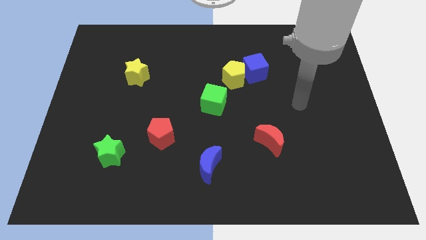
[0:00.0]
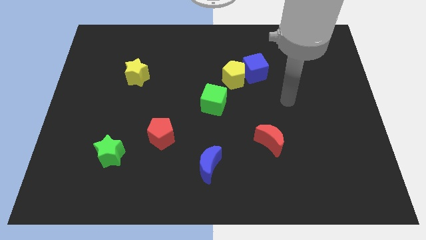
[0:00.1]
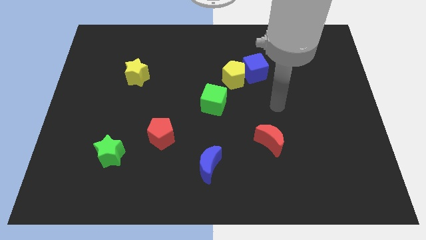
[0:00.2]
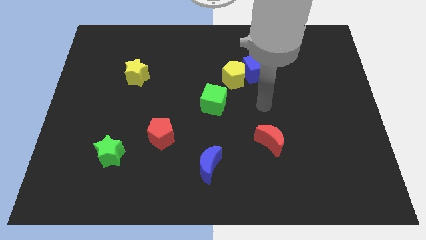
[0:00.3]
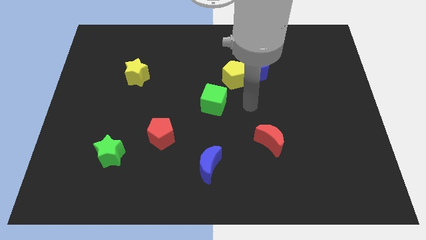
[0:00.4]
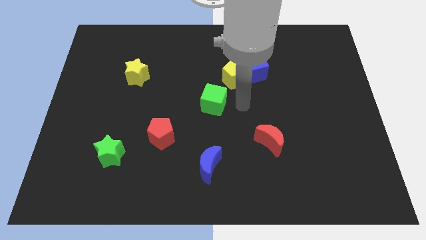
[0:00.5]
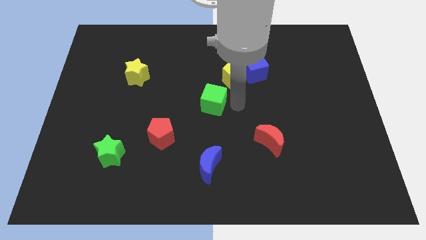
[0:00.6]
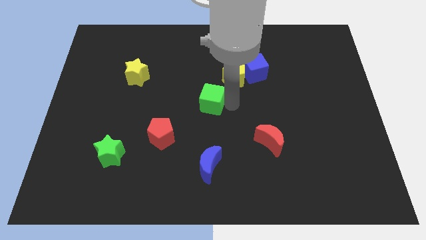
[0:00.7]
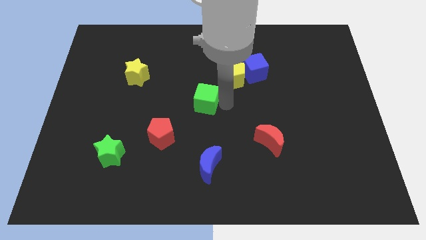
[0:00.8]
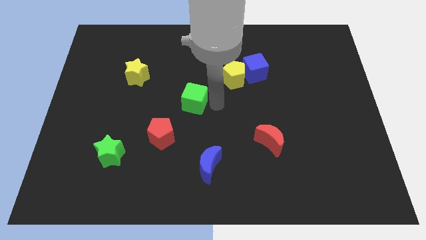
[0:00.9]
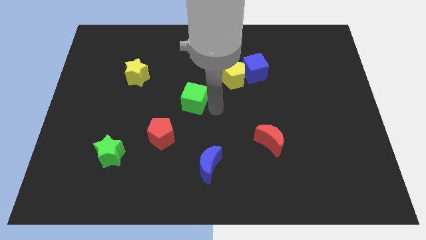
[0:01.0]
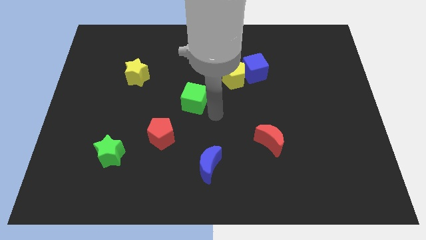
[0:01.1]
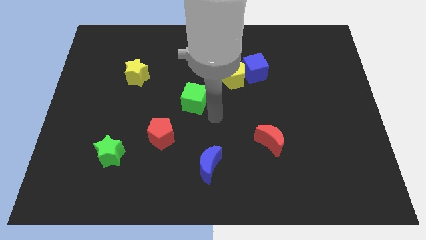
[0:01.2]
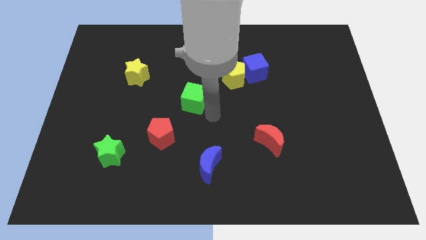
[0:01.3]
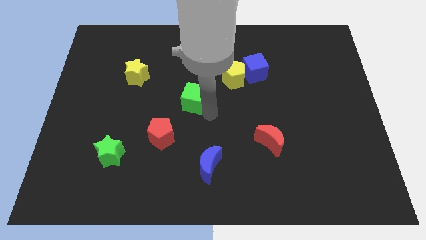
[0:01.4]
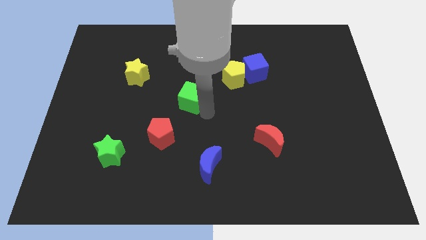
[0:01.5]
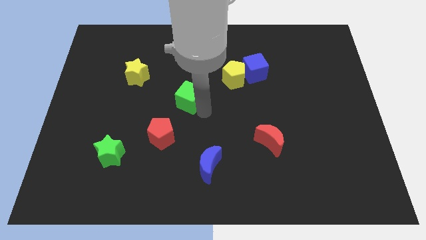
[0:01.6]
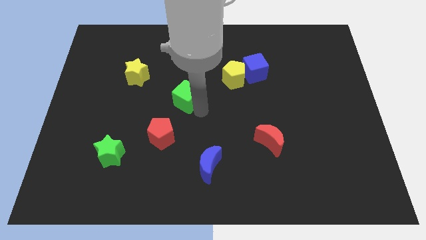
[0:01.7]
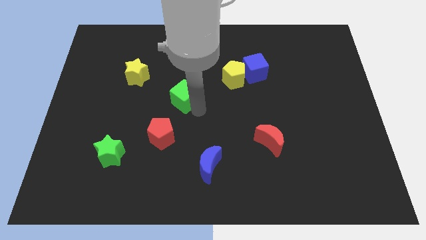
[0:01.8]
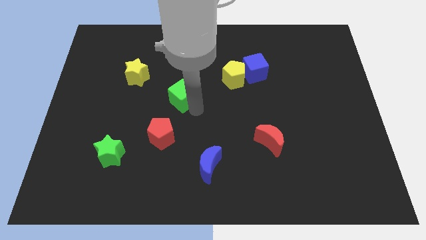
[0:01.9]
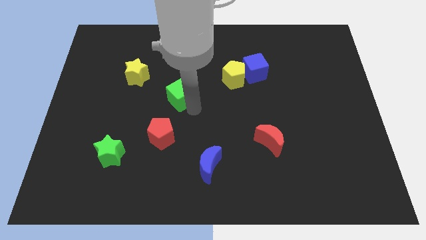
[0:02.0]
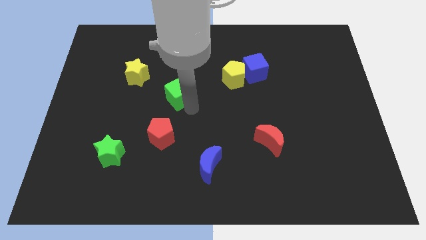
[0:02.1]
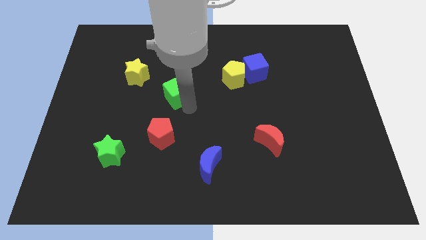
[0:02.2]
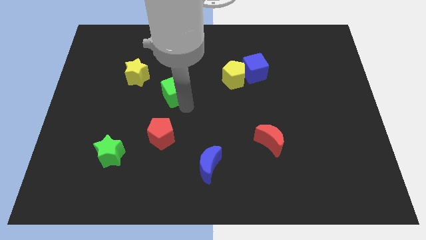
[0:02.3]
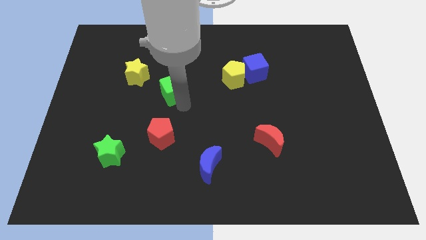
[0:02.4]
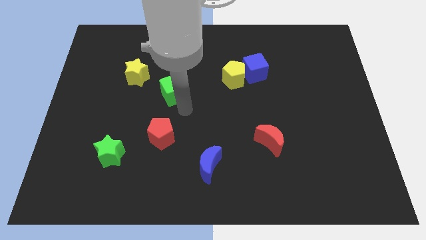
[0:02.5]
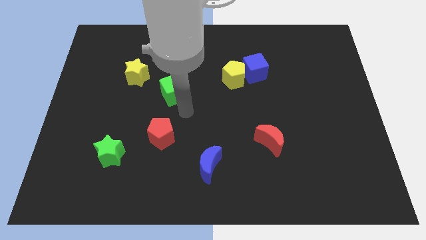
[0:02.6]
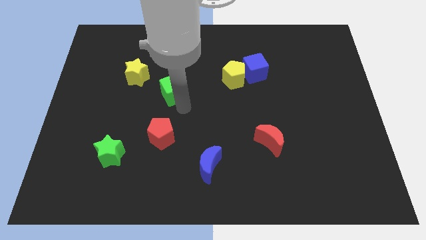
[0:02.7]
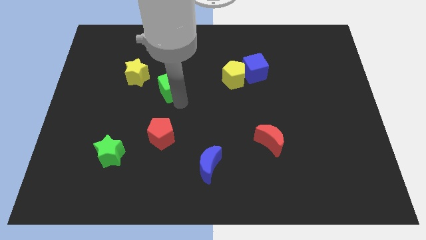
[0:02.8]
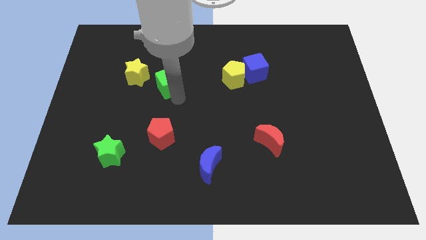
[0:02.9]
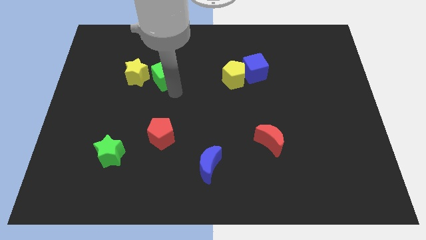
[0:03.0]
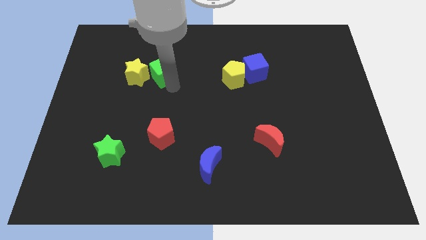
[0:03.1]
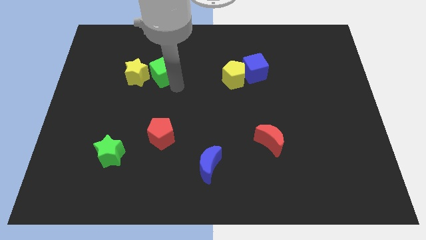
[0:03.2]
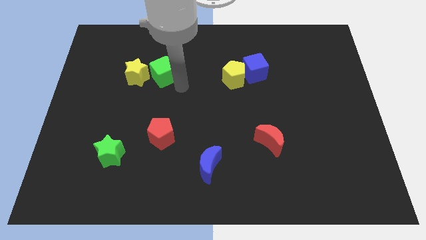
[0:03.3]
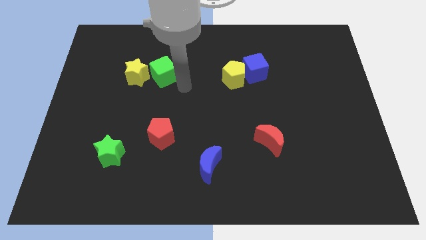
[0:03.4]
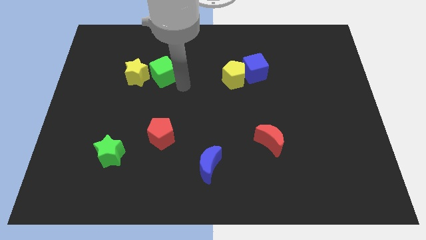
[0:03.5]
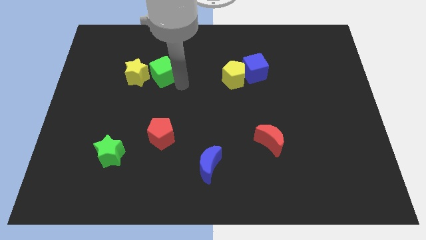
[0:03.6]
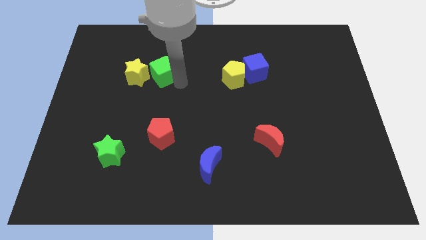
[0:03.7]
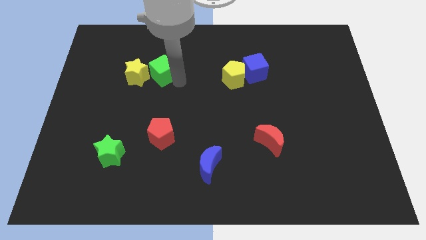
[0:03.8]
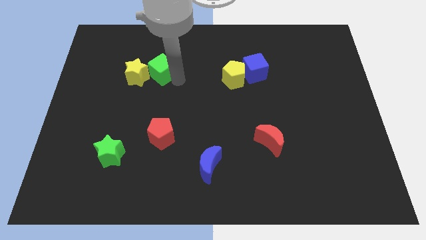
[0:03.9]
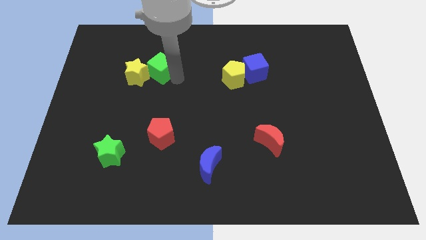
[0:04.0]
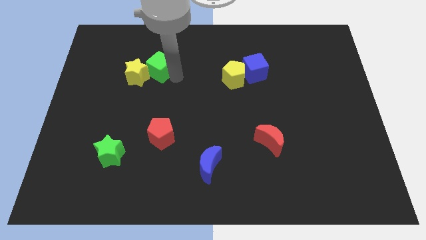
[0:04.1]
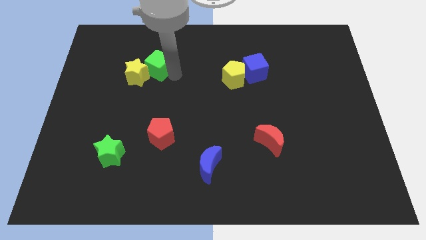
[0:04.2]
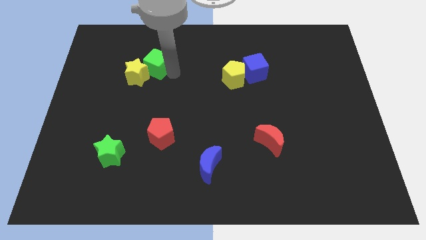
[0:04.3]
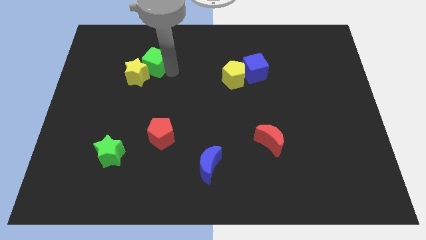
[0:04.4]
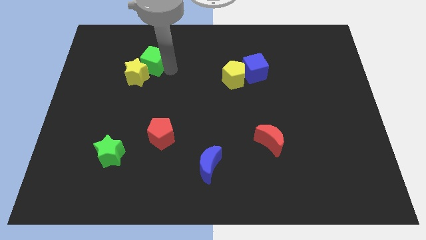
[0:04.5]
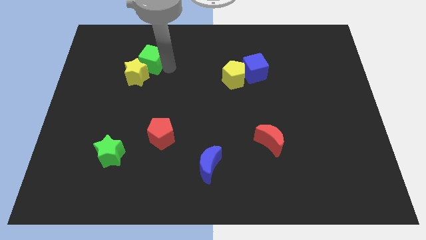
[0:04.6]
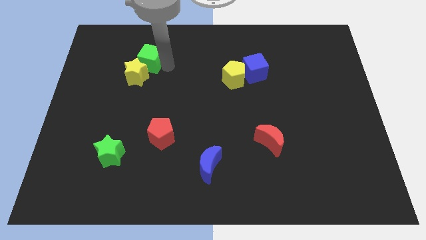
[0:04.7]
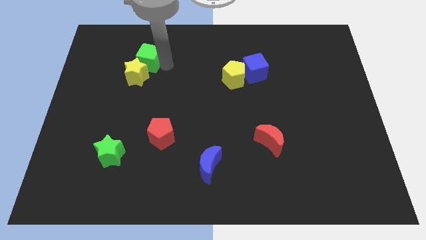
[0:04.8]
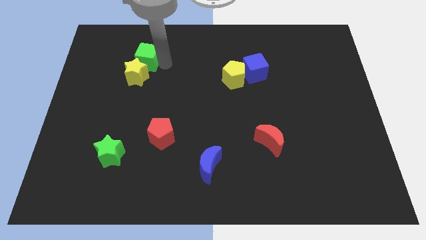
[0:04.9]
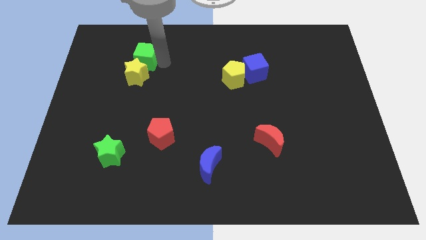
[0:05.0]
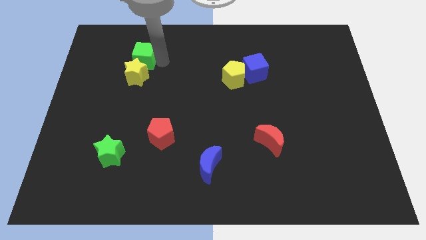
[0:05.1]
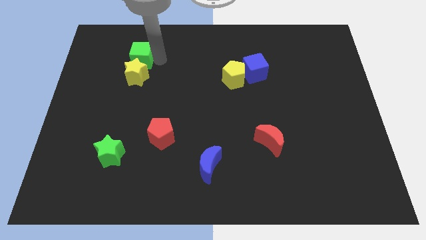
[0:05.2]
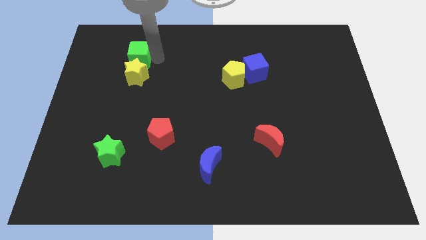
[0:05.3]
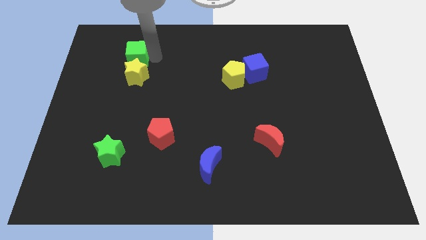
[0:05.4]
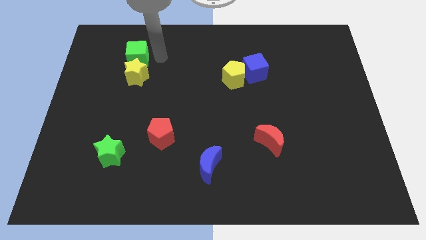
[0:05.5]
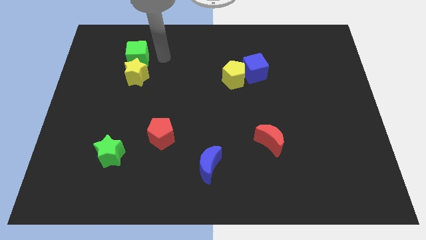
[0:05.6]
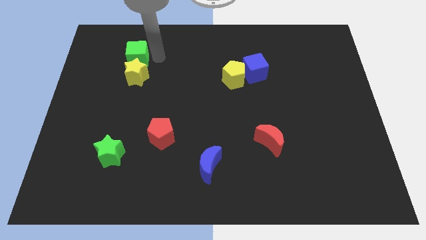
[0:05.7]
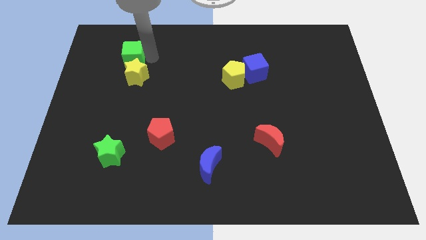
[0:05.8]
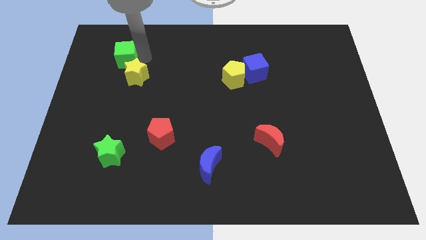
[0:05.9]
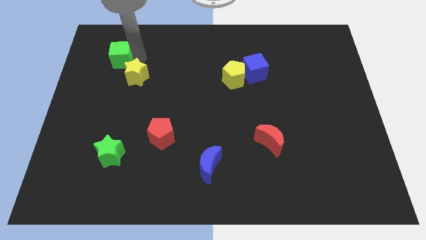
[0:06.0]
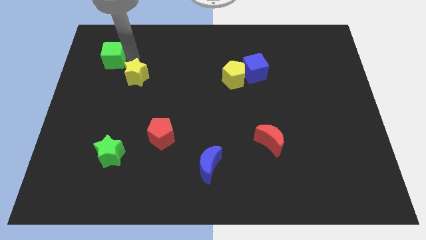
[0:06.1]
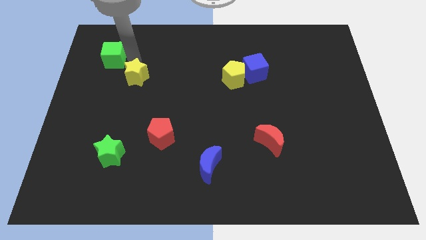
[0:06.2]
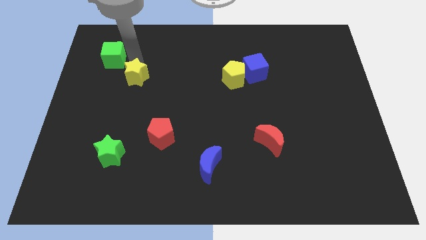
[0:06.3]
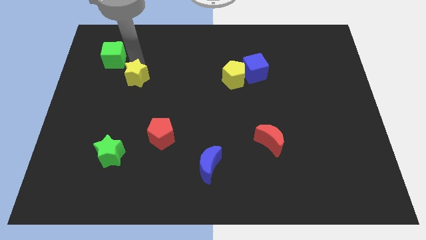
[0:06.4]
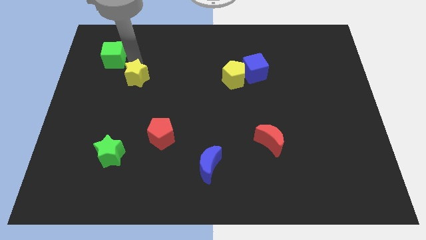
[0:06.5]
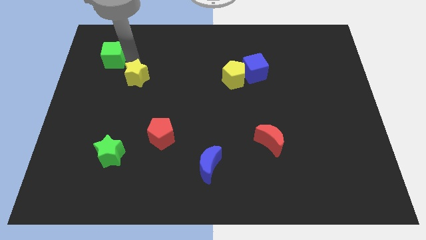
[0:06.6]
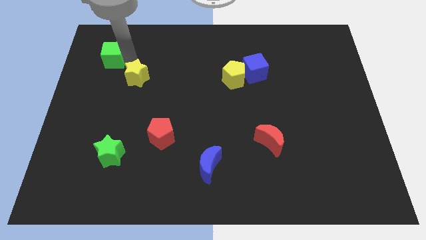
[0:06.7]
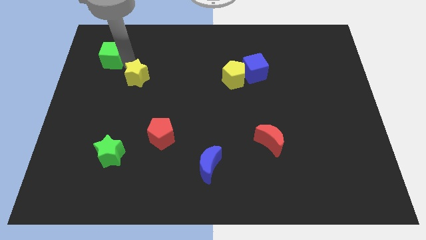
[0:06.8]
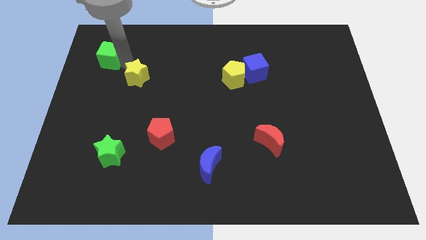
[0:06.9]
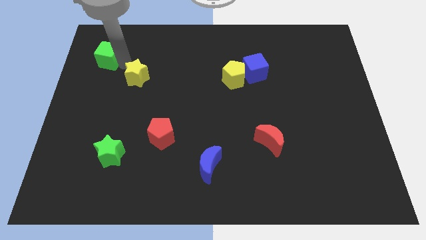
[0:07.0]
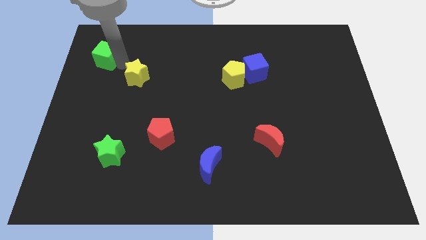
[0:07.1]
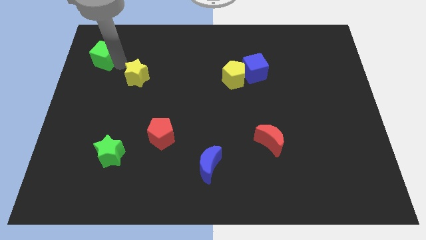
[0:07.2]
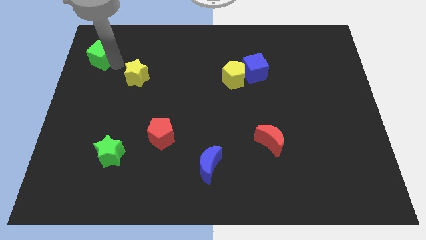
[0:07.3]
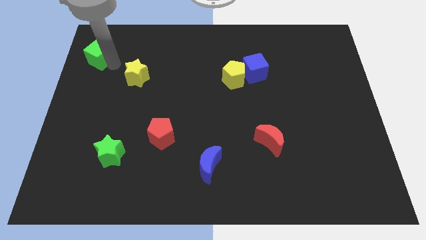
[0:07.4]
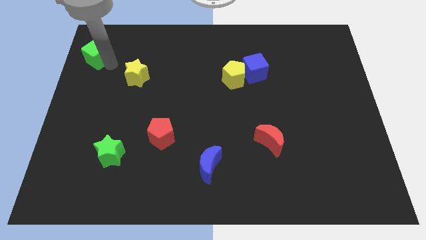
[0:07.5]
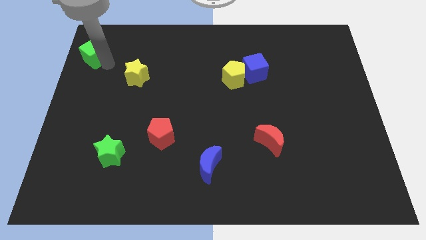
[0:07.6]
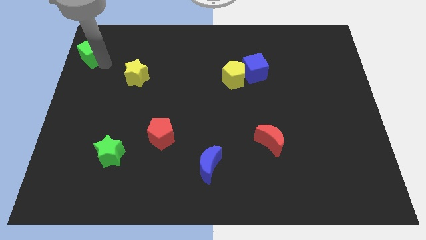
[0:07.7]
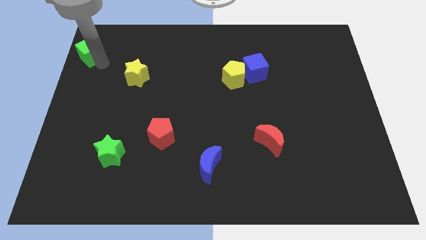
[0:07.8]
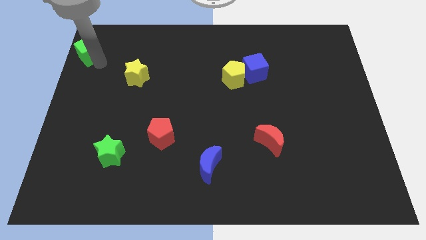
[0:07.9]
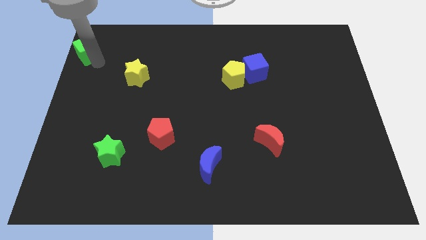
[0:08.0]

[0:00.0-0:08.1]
put the green cube to the top left of the board
